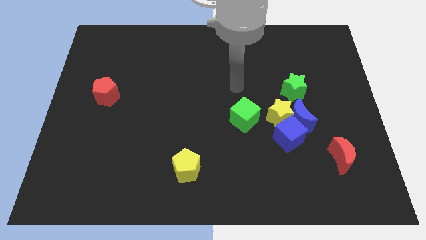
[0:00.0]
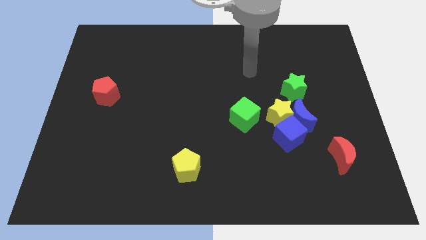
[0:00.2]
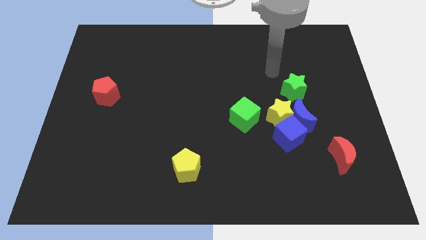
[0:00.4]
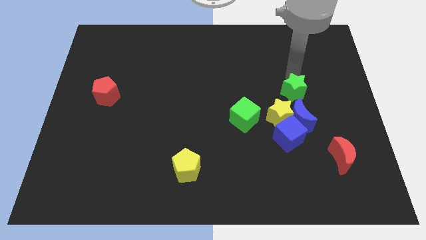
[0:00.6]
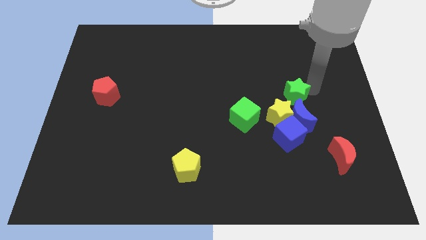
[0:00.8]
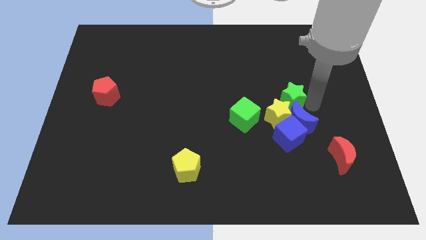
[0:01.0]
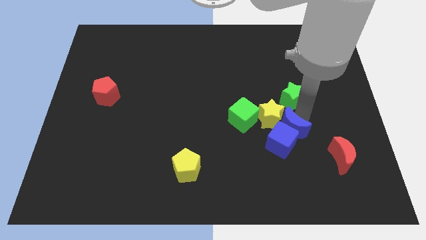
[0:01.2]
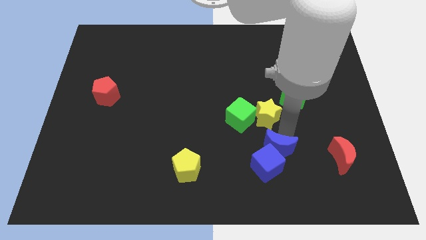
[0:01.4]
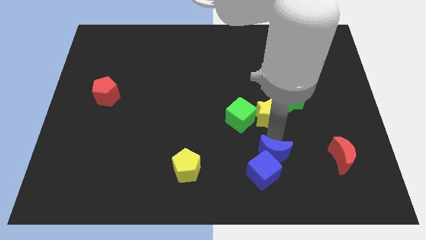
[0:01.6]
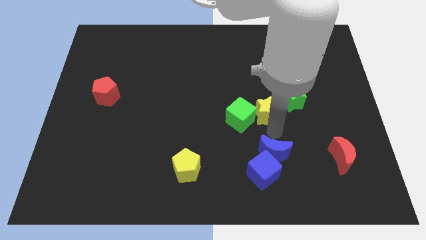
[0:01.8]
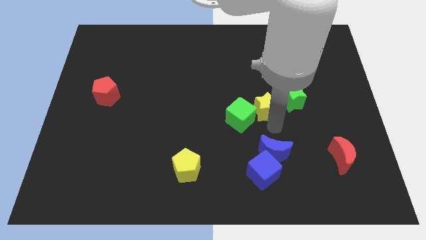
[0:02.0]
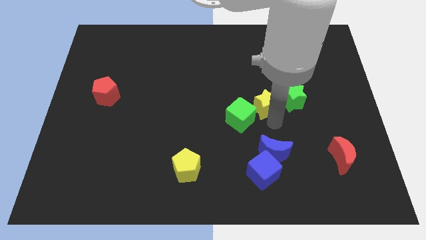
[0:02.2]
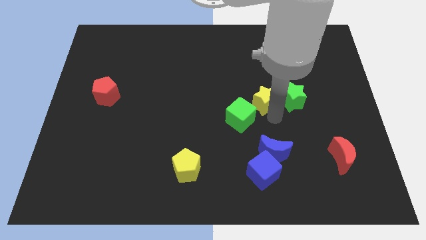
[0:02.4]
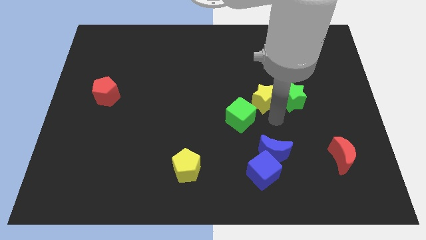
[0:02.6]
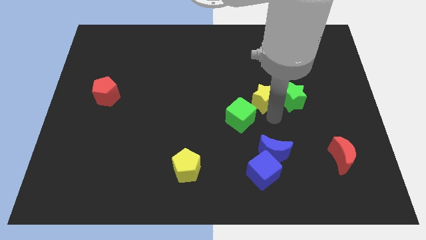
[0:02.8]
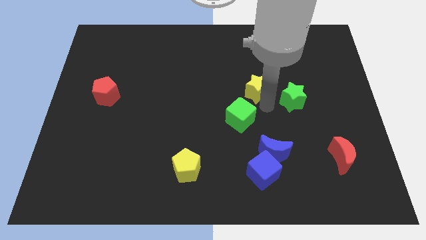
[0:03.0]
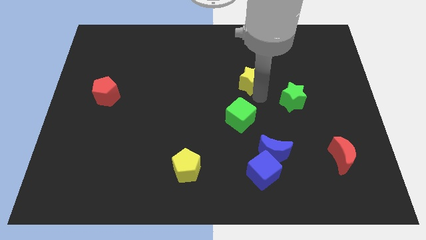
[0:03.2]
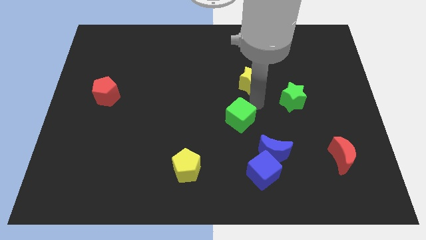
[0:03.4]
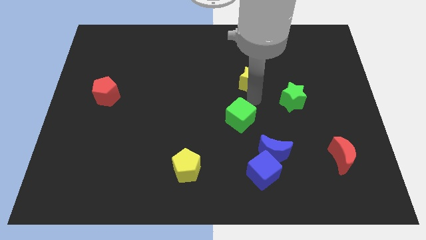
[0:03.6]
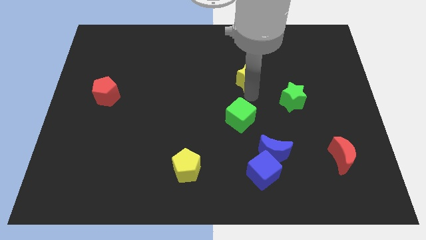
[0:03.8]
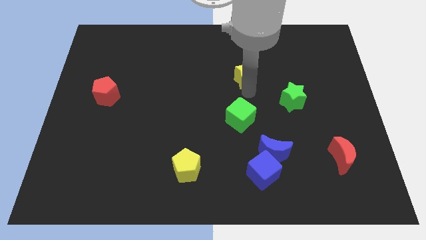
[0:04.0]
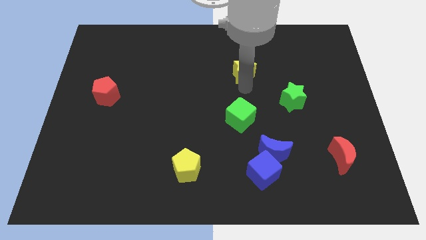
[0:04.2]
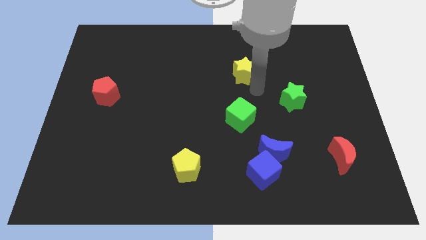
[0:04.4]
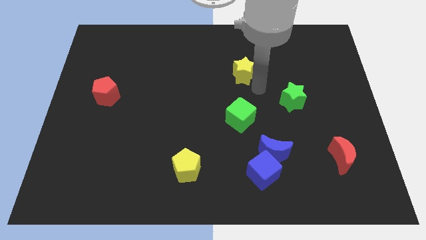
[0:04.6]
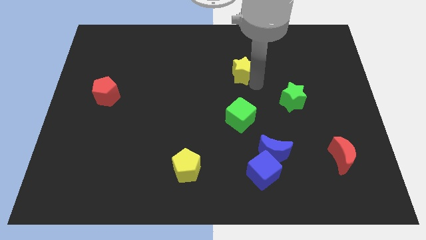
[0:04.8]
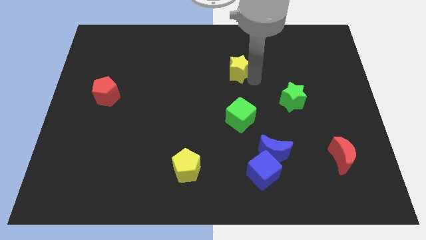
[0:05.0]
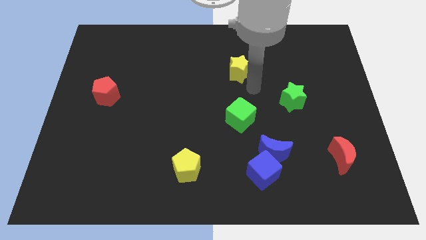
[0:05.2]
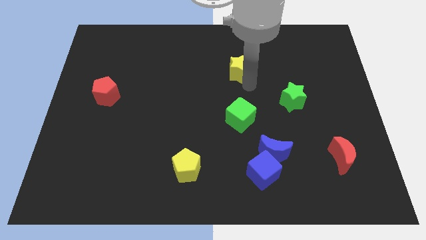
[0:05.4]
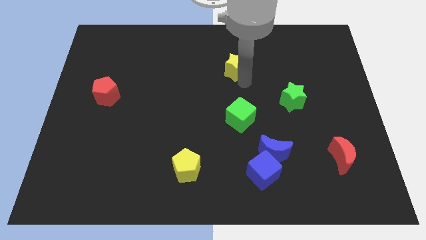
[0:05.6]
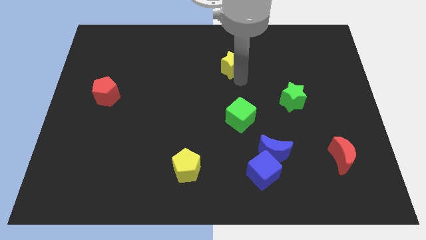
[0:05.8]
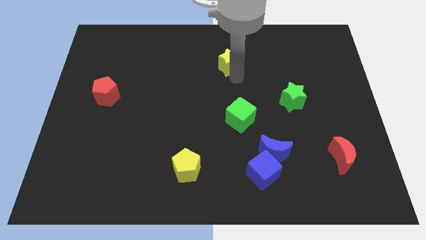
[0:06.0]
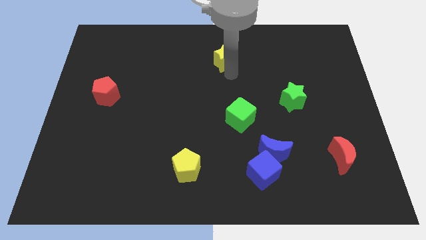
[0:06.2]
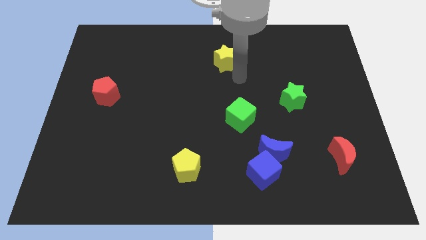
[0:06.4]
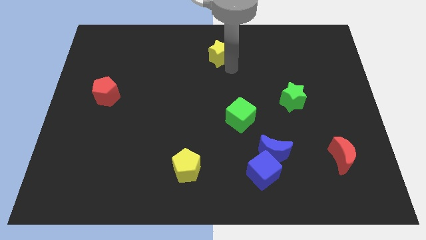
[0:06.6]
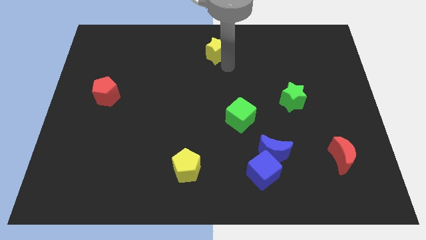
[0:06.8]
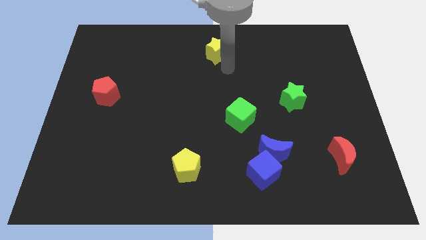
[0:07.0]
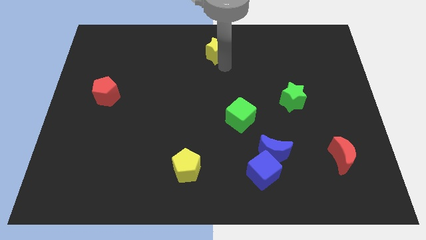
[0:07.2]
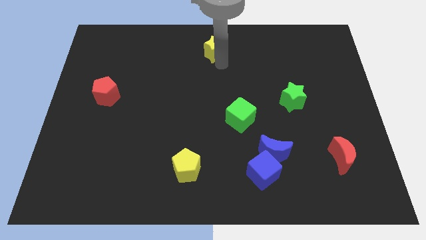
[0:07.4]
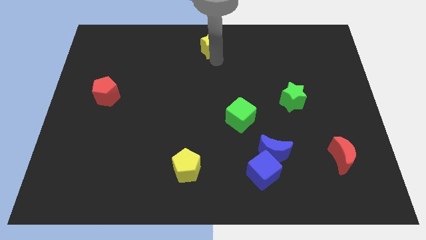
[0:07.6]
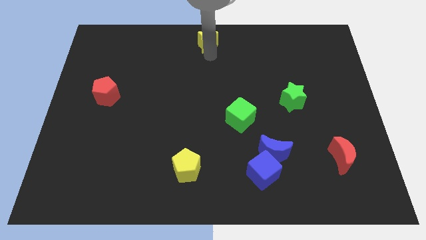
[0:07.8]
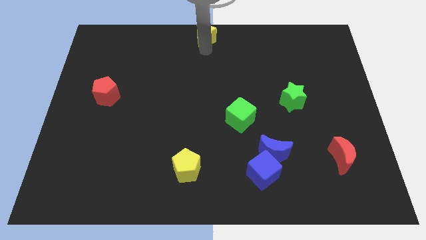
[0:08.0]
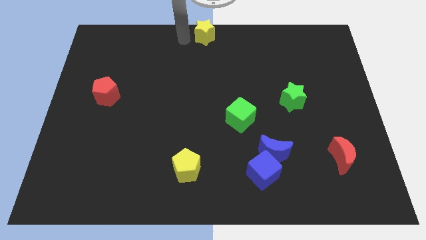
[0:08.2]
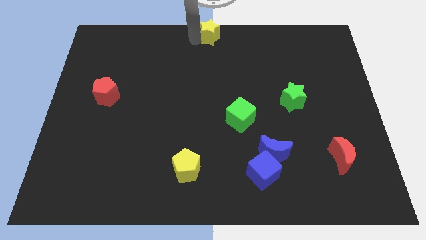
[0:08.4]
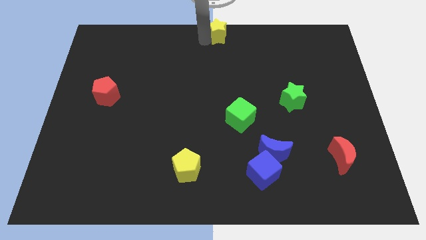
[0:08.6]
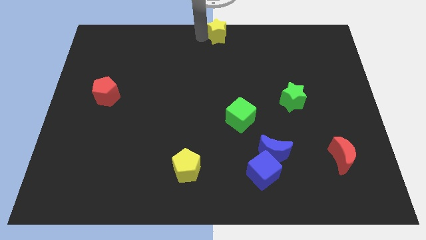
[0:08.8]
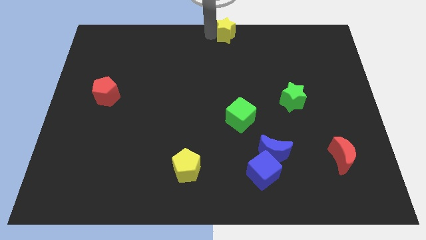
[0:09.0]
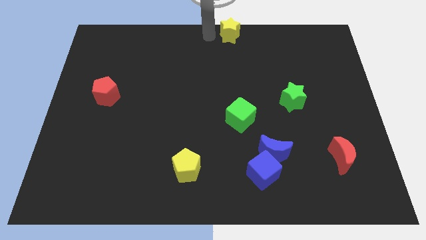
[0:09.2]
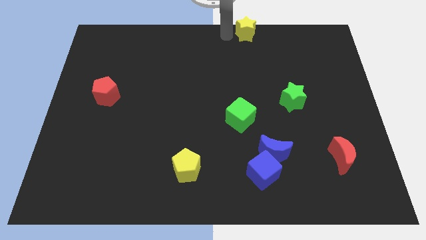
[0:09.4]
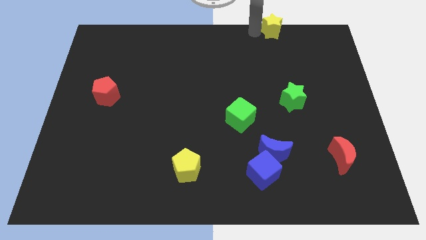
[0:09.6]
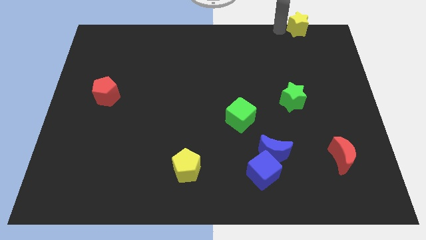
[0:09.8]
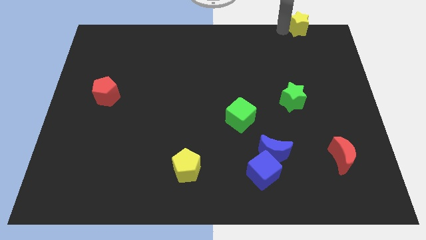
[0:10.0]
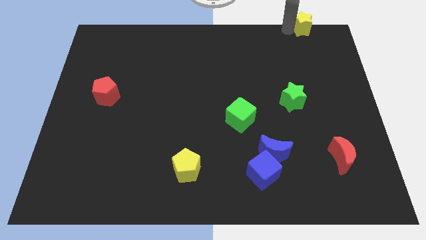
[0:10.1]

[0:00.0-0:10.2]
slide the yellow star to the top right of the board

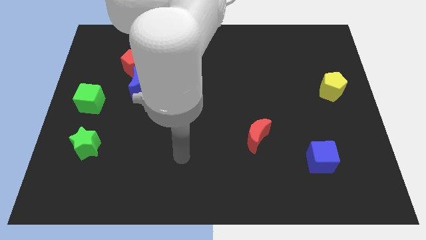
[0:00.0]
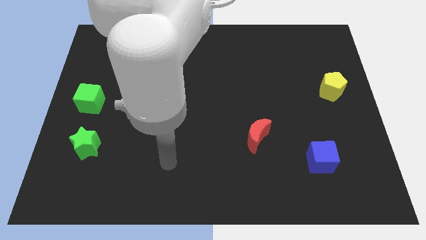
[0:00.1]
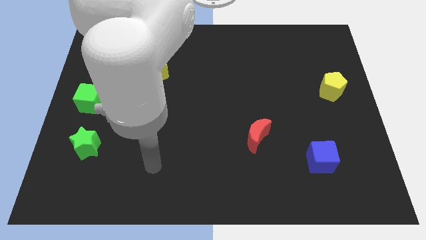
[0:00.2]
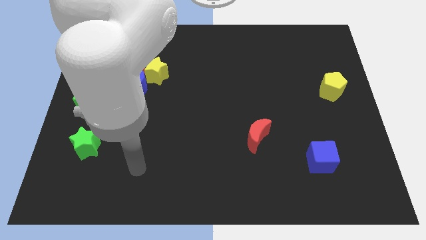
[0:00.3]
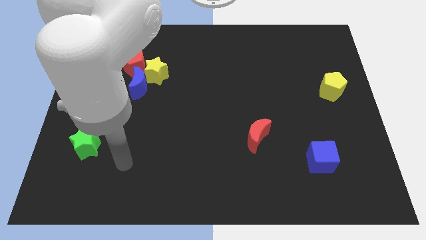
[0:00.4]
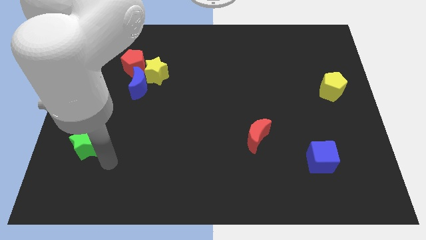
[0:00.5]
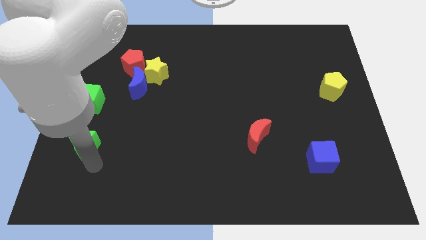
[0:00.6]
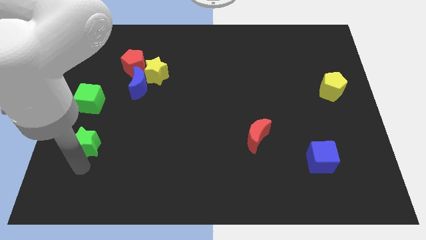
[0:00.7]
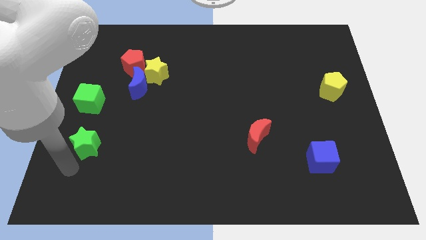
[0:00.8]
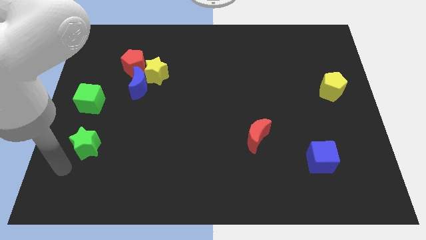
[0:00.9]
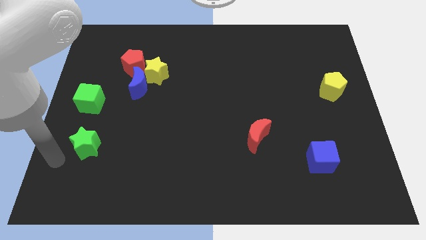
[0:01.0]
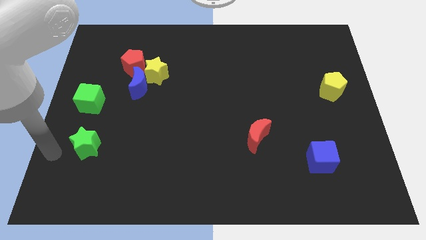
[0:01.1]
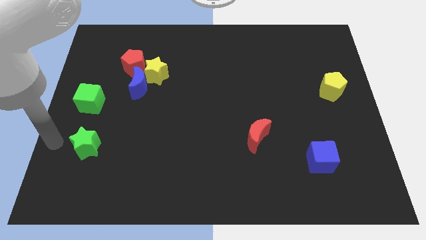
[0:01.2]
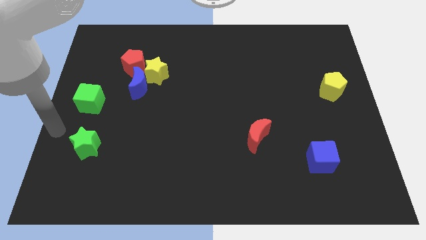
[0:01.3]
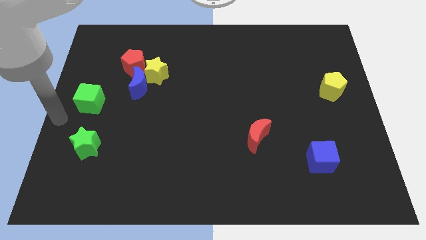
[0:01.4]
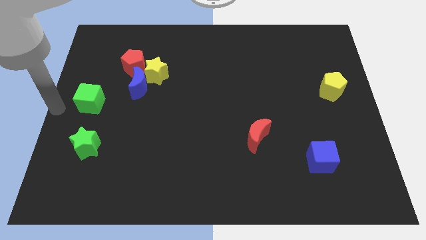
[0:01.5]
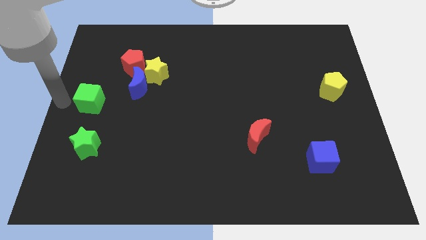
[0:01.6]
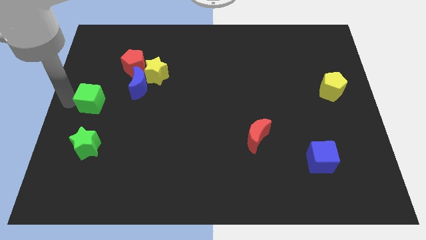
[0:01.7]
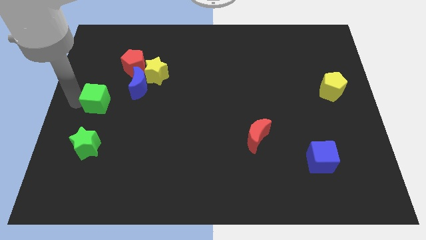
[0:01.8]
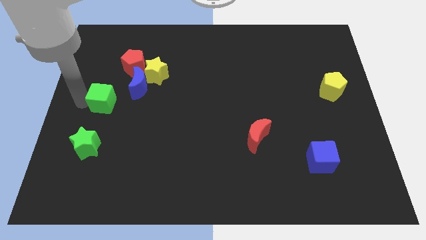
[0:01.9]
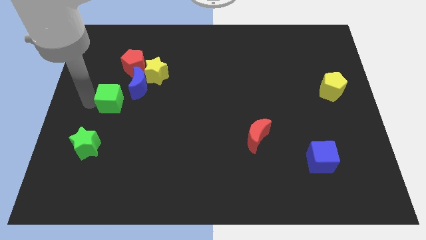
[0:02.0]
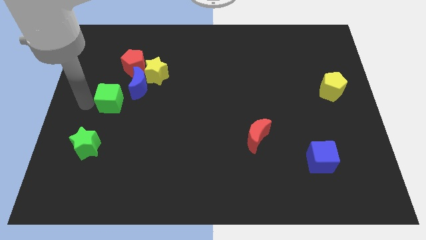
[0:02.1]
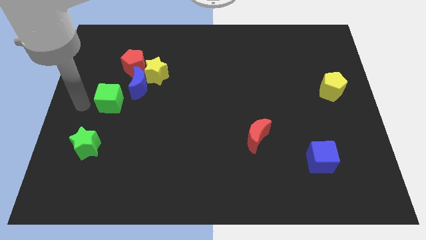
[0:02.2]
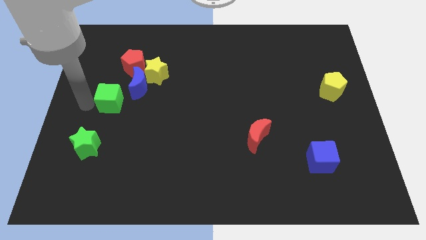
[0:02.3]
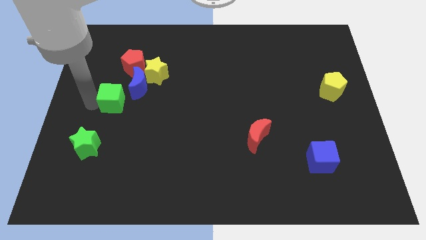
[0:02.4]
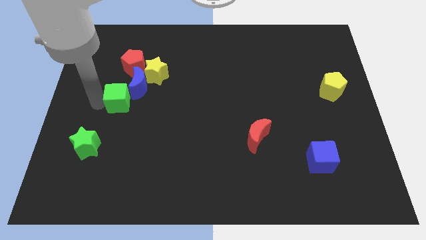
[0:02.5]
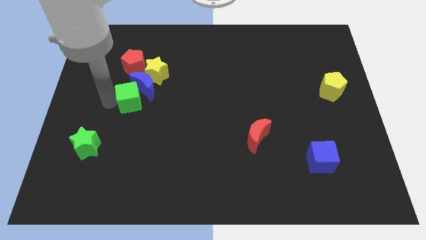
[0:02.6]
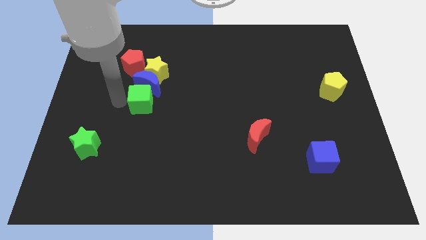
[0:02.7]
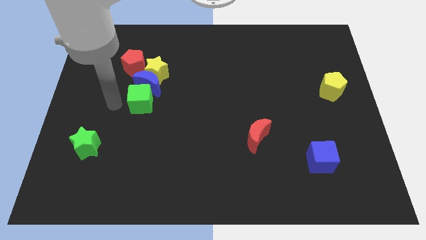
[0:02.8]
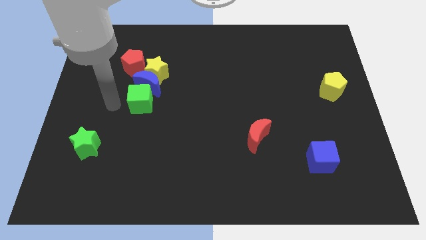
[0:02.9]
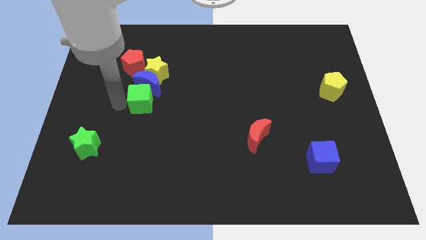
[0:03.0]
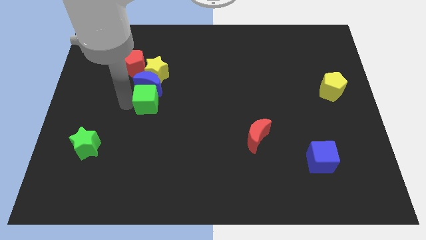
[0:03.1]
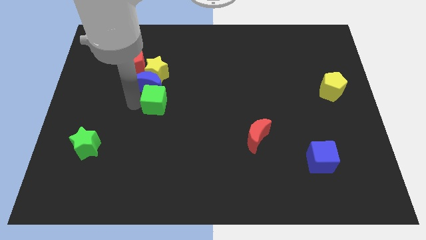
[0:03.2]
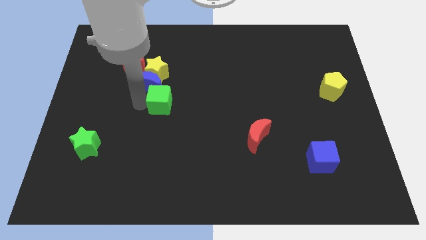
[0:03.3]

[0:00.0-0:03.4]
push the green cube to the center
